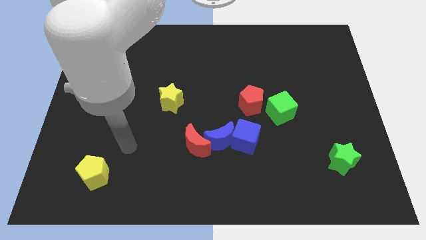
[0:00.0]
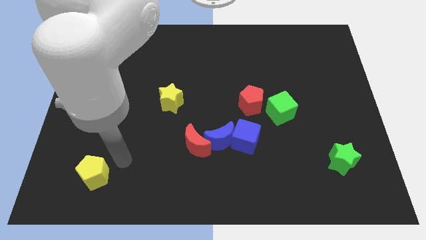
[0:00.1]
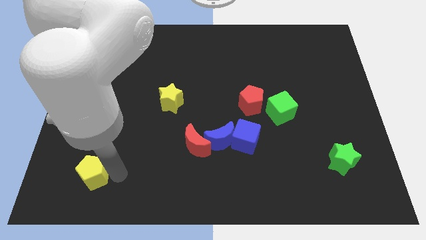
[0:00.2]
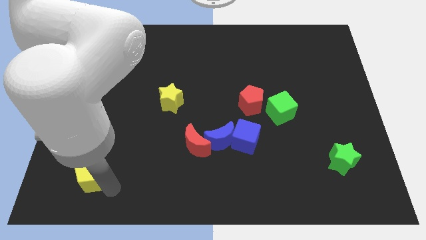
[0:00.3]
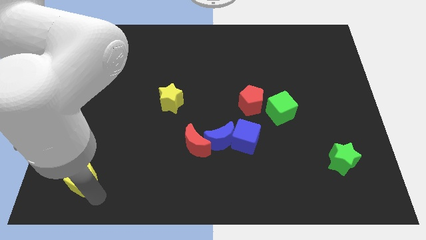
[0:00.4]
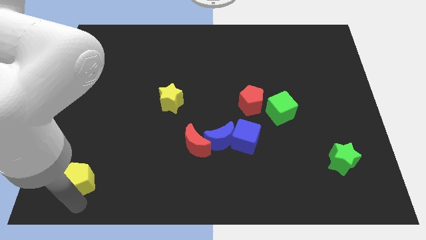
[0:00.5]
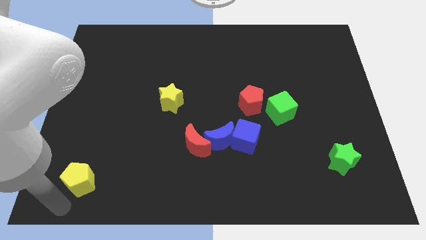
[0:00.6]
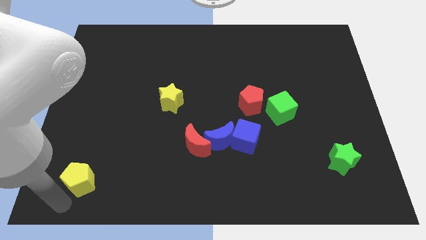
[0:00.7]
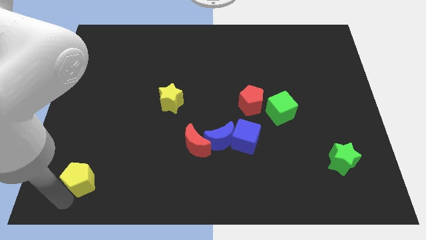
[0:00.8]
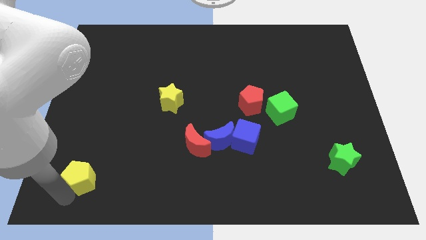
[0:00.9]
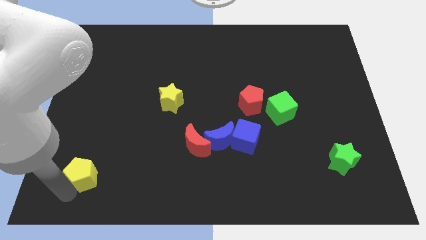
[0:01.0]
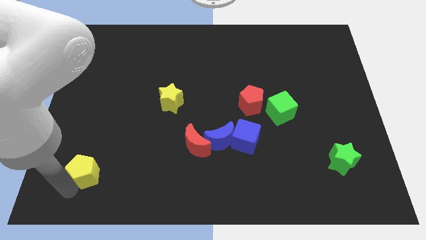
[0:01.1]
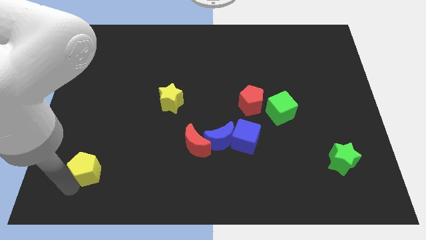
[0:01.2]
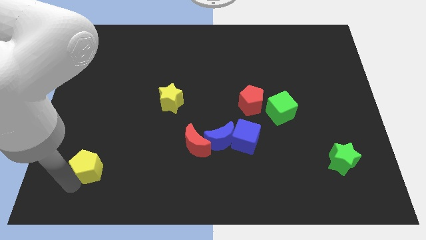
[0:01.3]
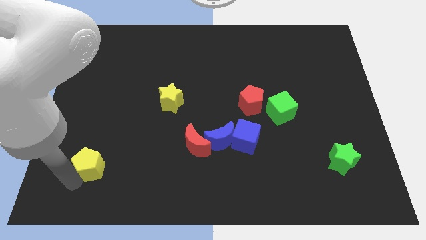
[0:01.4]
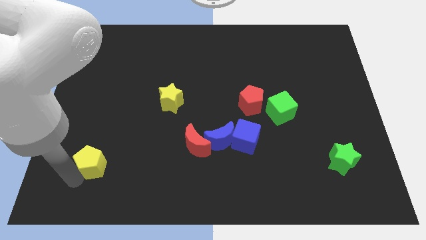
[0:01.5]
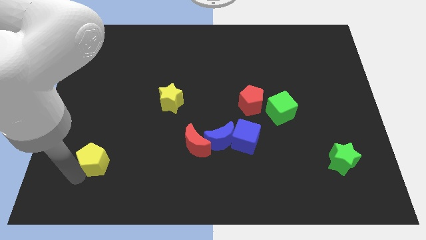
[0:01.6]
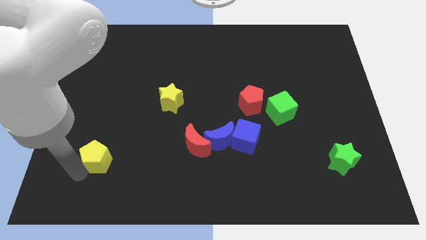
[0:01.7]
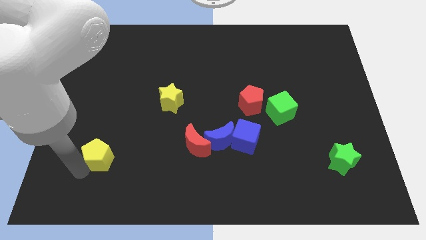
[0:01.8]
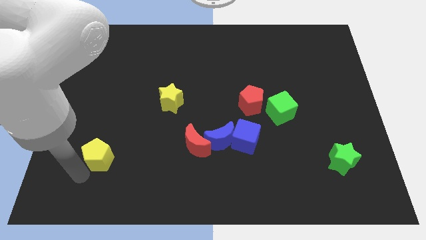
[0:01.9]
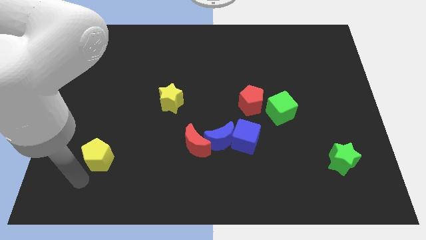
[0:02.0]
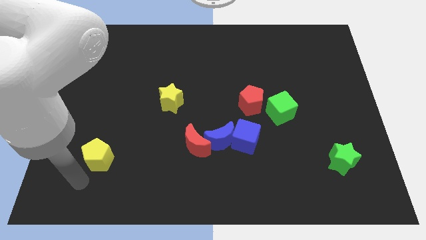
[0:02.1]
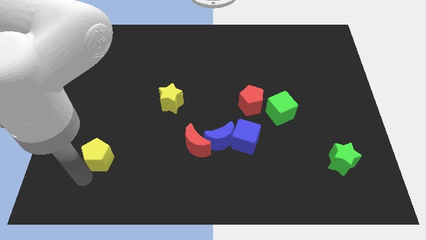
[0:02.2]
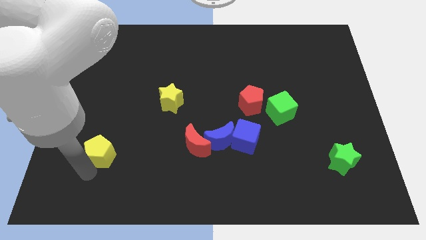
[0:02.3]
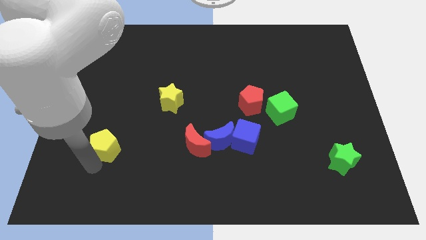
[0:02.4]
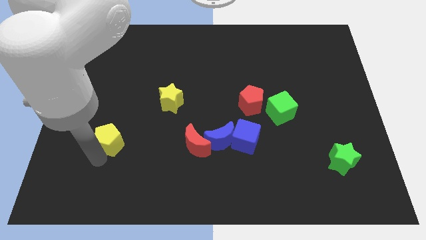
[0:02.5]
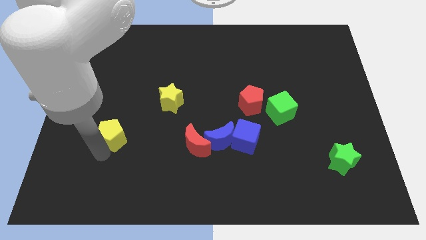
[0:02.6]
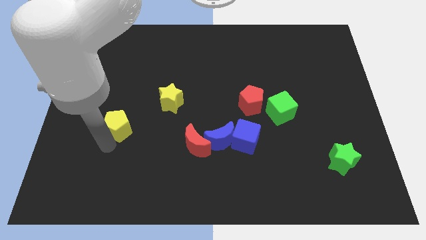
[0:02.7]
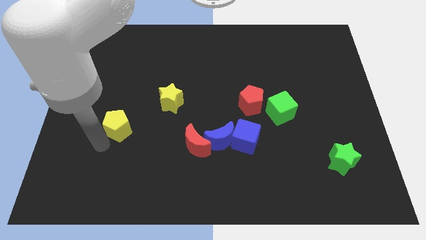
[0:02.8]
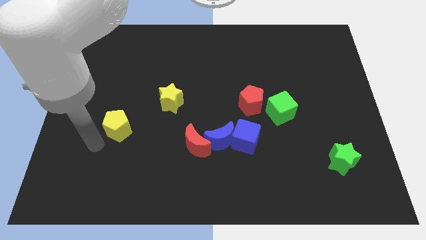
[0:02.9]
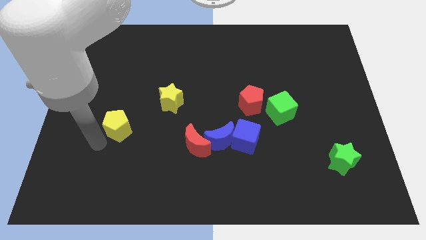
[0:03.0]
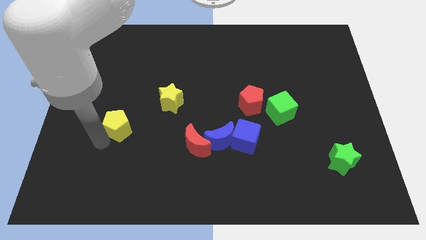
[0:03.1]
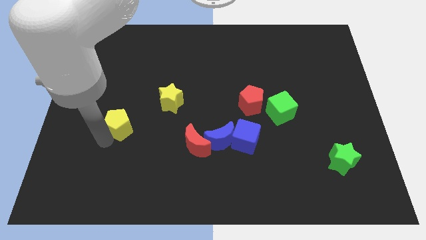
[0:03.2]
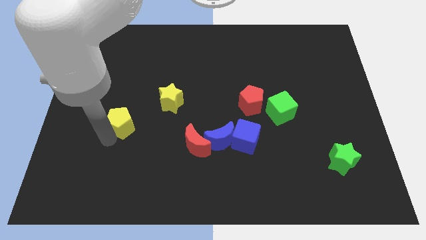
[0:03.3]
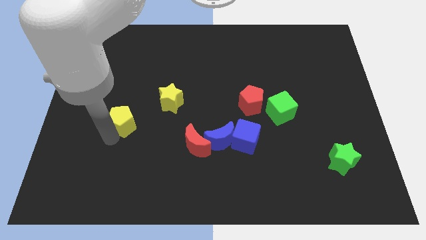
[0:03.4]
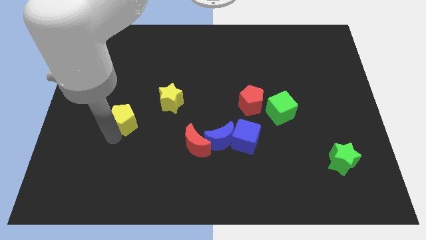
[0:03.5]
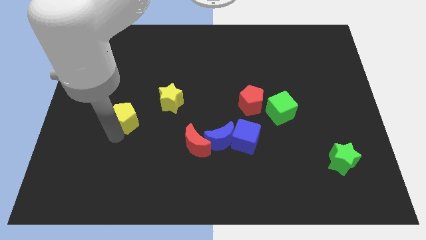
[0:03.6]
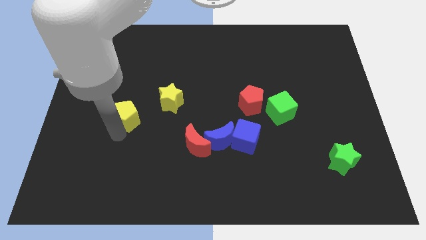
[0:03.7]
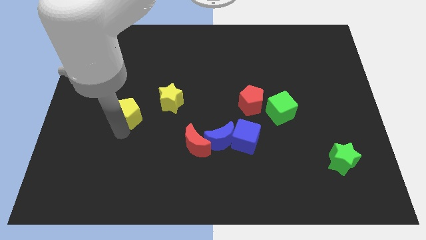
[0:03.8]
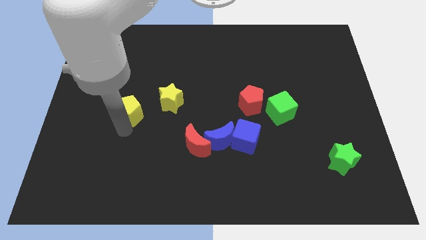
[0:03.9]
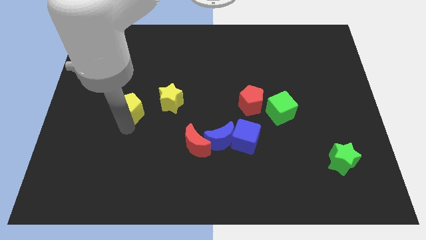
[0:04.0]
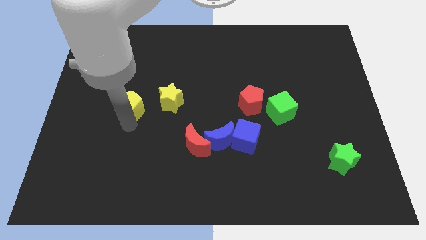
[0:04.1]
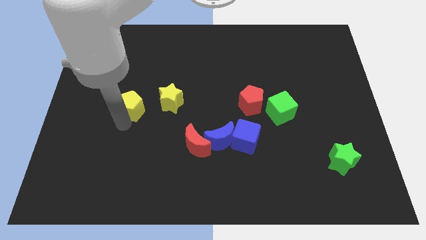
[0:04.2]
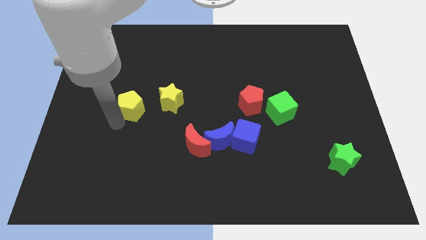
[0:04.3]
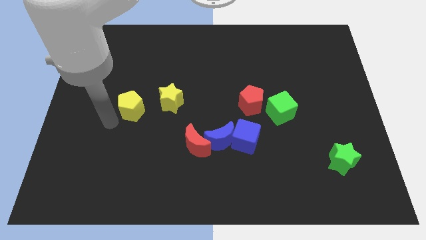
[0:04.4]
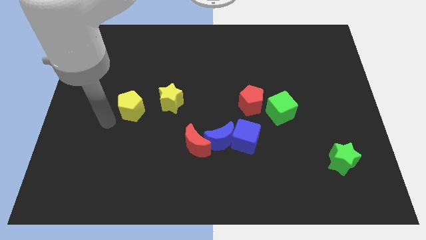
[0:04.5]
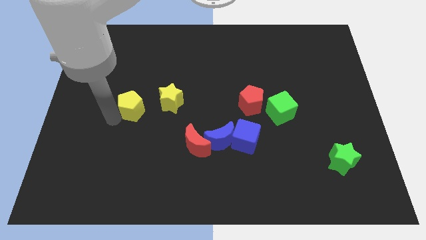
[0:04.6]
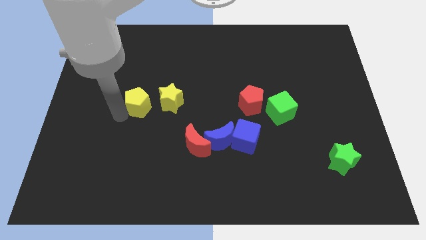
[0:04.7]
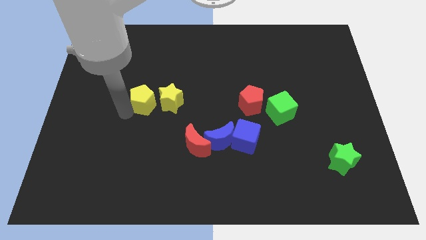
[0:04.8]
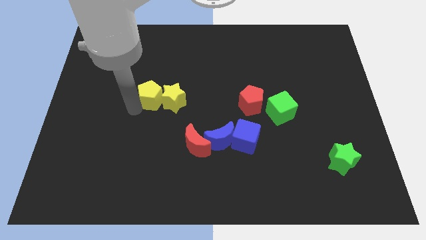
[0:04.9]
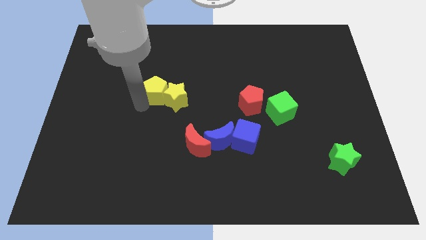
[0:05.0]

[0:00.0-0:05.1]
move the yellow pentagon upwards and then to the right

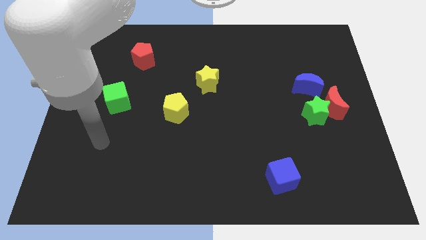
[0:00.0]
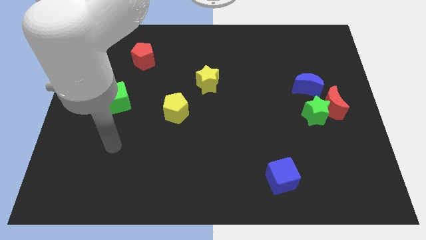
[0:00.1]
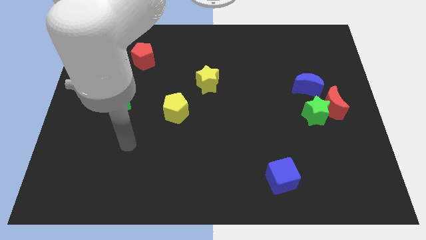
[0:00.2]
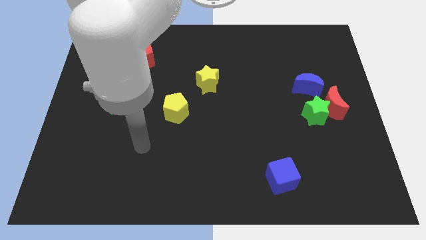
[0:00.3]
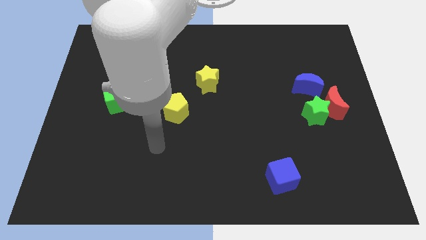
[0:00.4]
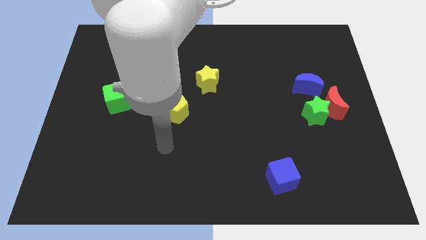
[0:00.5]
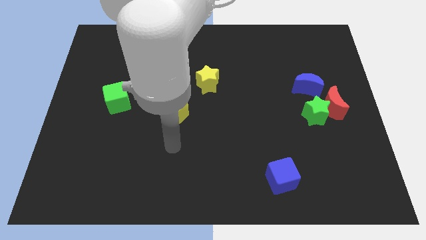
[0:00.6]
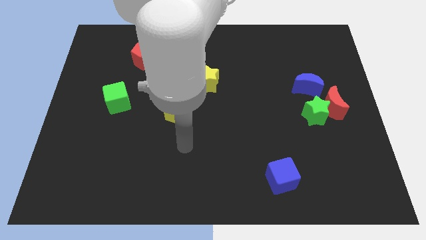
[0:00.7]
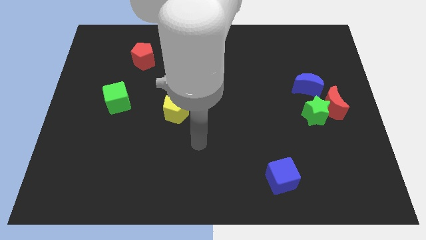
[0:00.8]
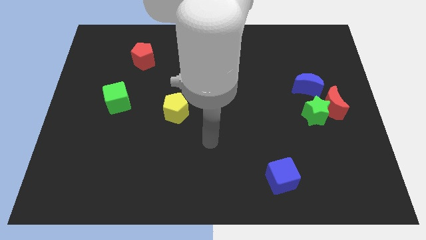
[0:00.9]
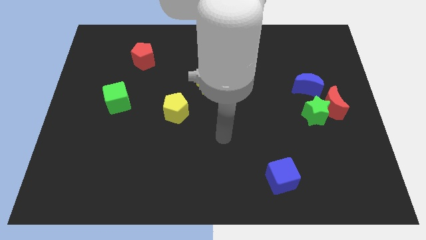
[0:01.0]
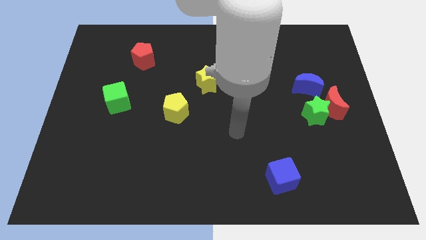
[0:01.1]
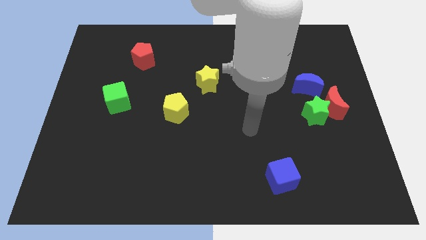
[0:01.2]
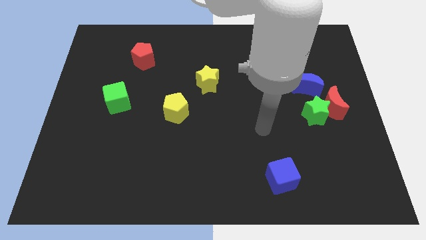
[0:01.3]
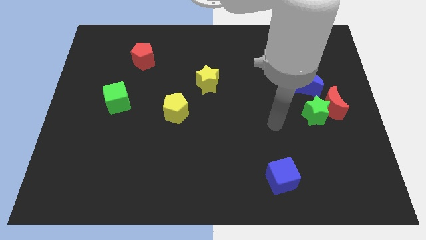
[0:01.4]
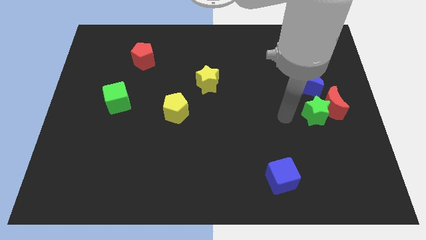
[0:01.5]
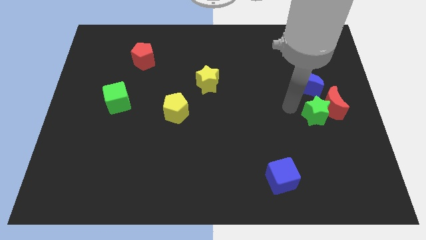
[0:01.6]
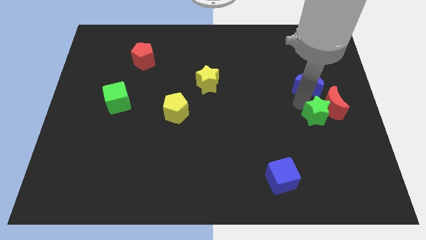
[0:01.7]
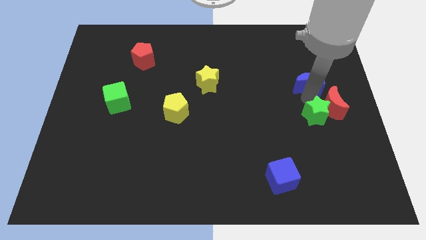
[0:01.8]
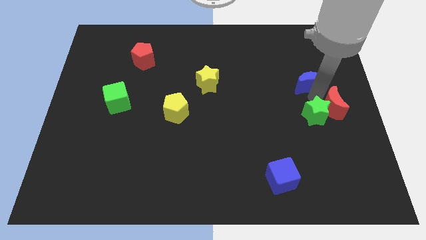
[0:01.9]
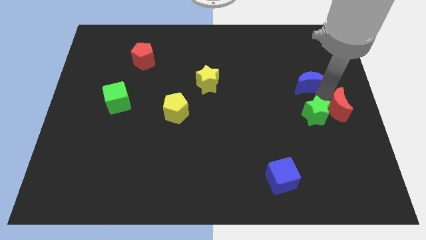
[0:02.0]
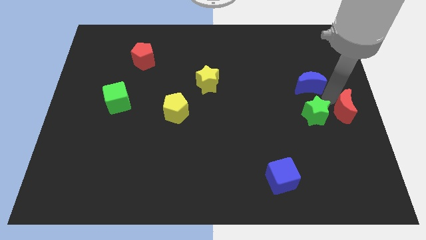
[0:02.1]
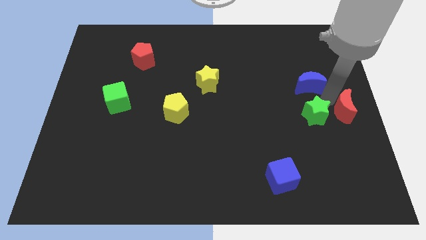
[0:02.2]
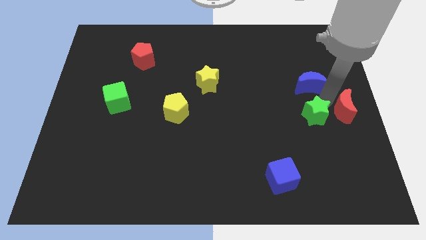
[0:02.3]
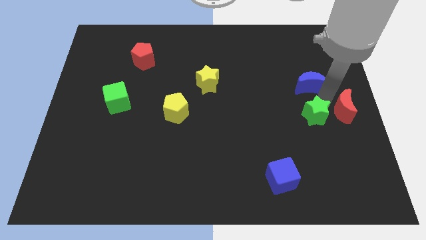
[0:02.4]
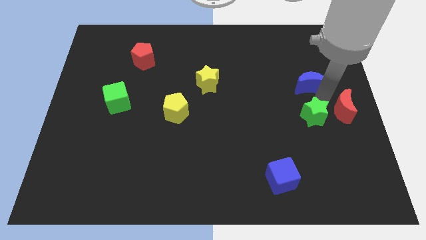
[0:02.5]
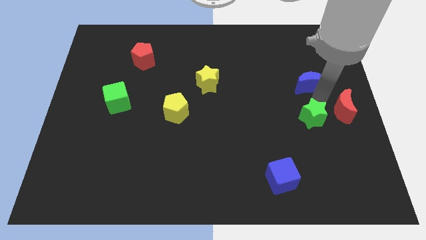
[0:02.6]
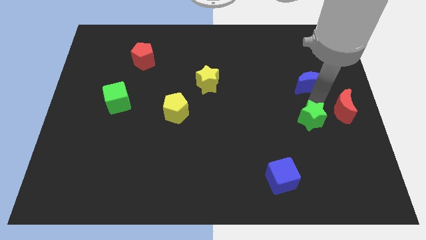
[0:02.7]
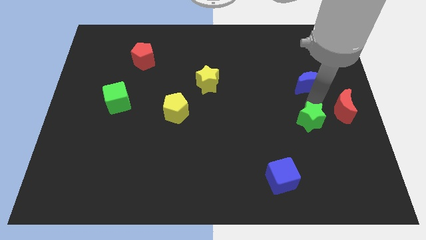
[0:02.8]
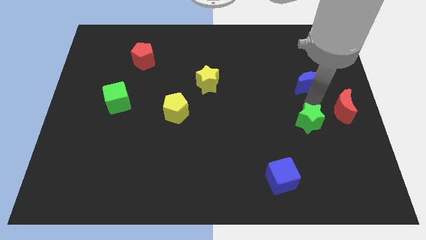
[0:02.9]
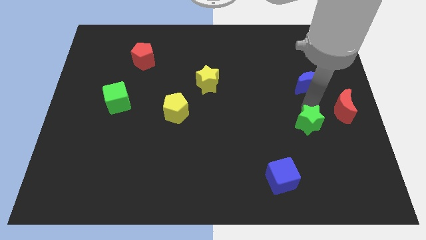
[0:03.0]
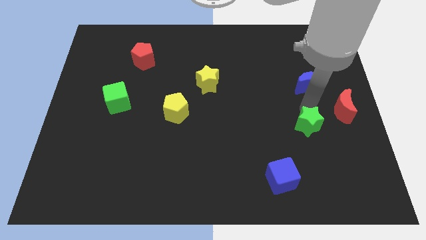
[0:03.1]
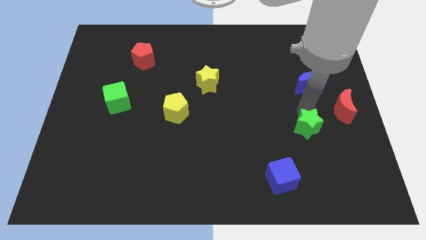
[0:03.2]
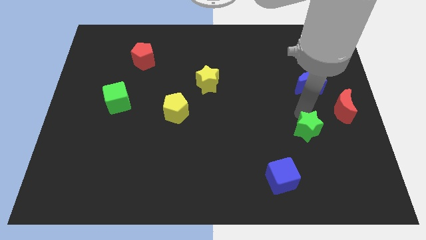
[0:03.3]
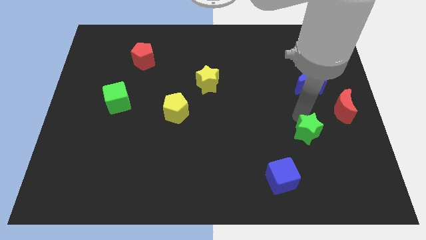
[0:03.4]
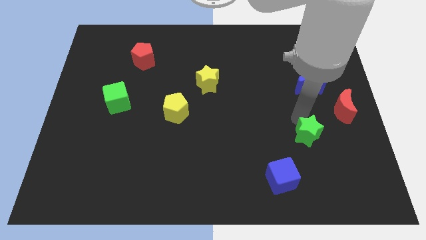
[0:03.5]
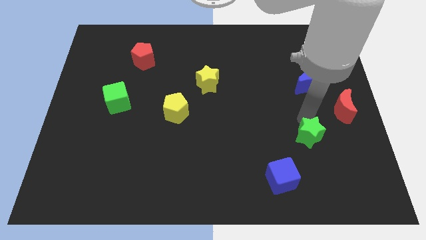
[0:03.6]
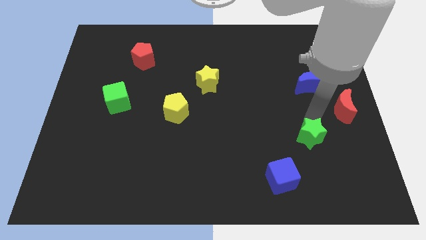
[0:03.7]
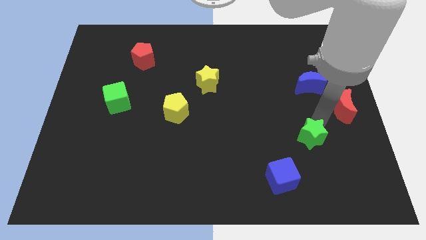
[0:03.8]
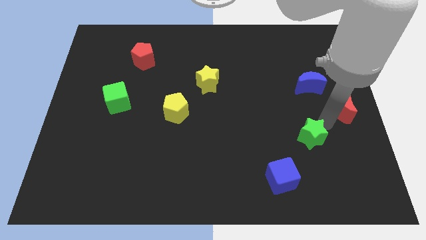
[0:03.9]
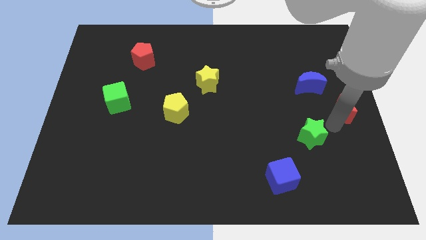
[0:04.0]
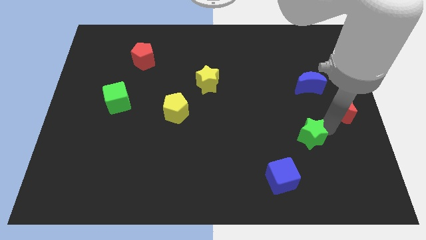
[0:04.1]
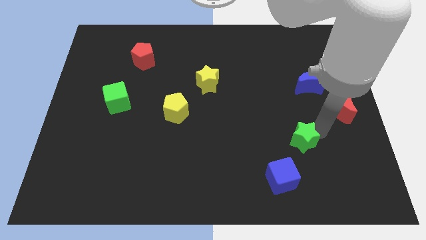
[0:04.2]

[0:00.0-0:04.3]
move the green star downwards and left slightly
